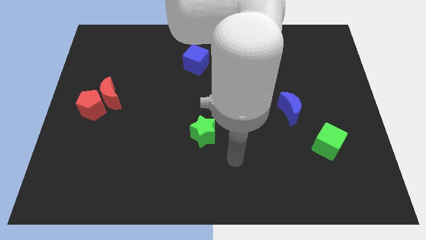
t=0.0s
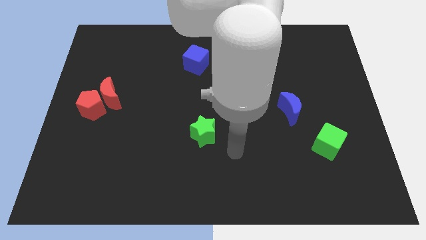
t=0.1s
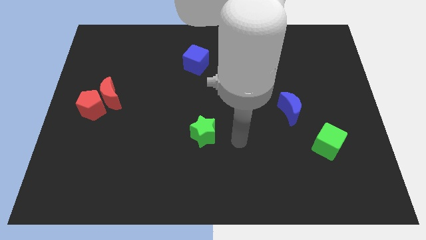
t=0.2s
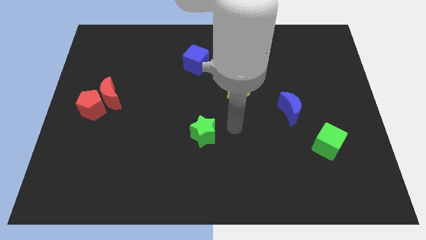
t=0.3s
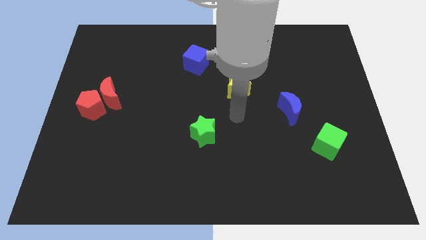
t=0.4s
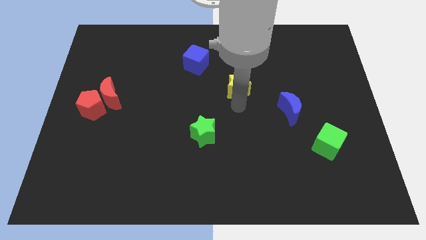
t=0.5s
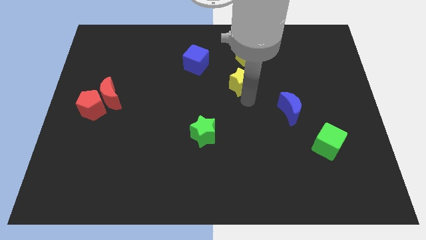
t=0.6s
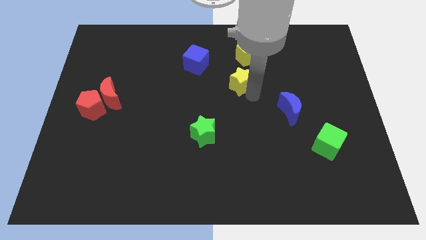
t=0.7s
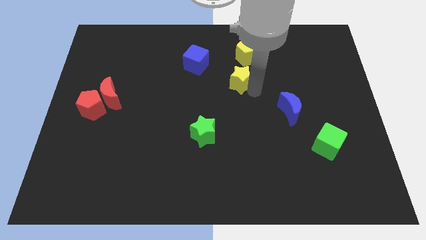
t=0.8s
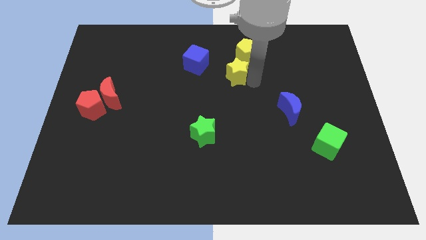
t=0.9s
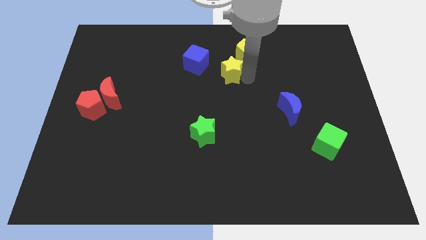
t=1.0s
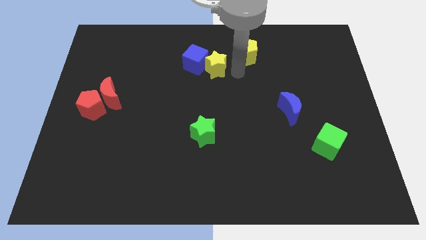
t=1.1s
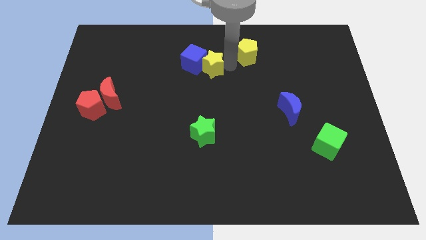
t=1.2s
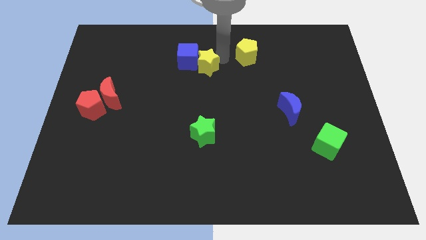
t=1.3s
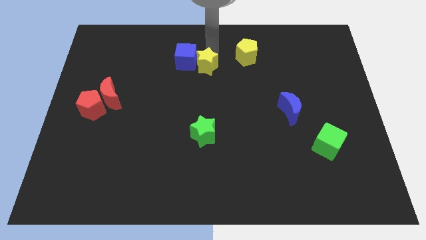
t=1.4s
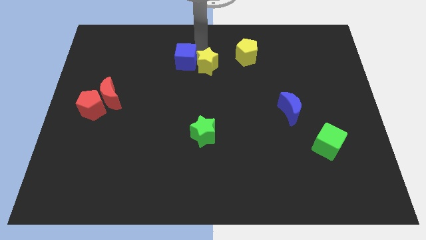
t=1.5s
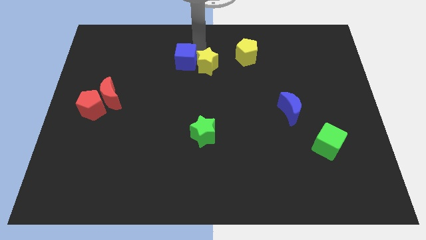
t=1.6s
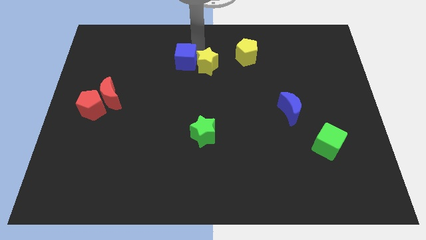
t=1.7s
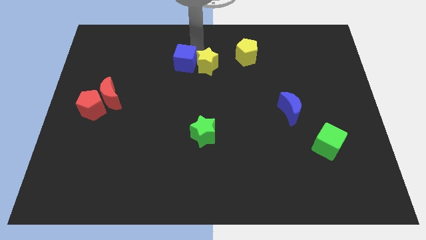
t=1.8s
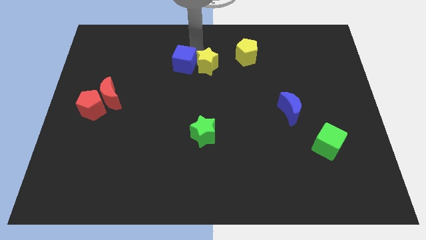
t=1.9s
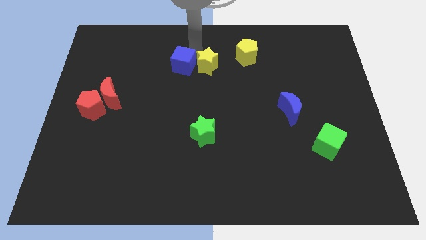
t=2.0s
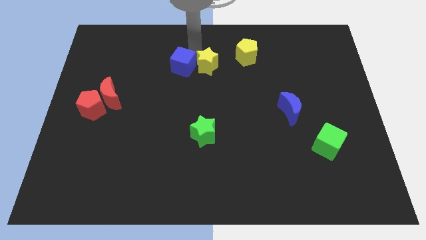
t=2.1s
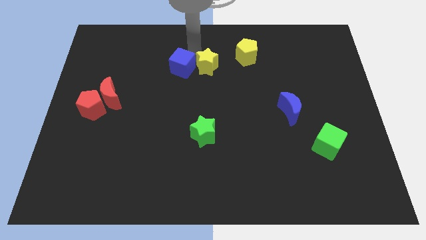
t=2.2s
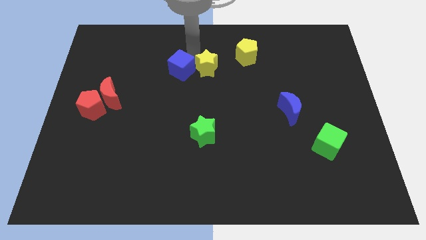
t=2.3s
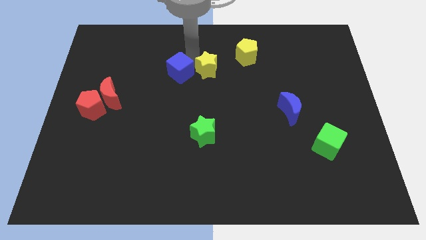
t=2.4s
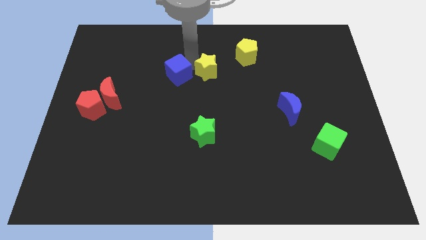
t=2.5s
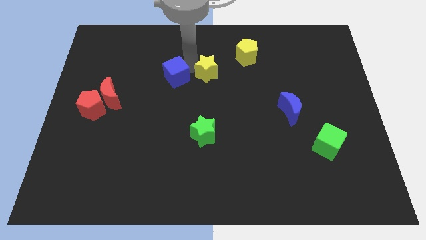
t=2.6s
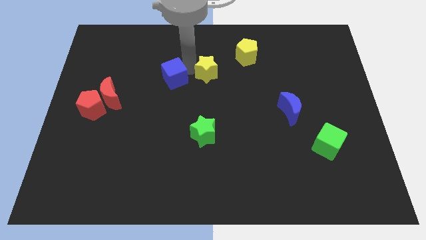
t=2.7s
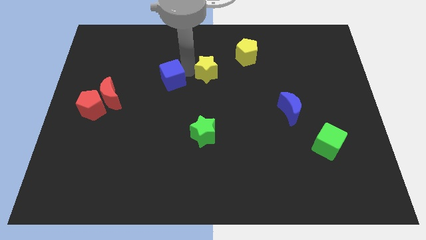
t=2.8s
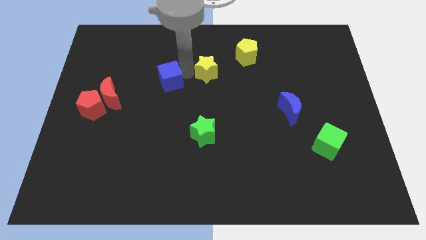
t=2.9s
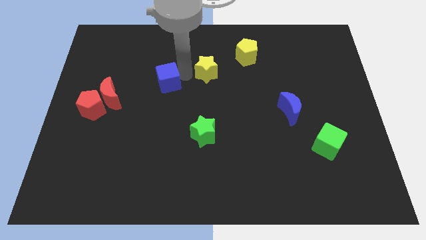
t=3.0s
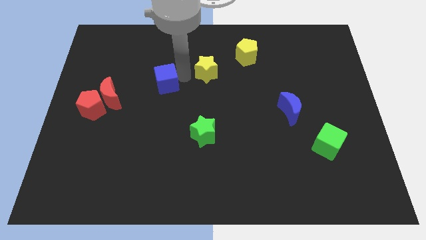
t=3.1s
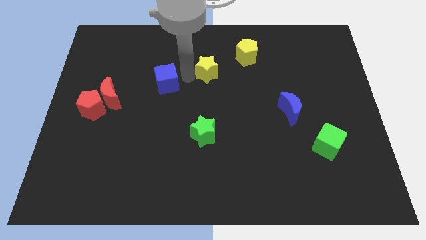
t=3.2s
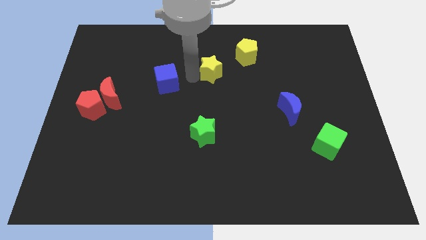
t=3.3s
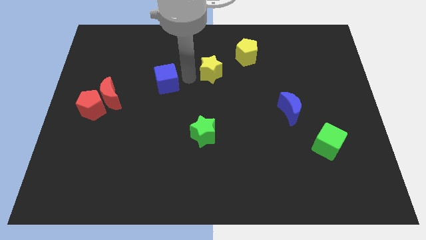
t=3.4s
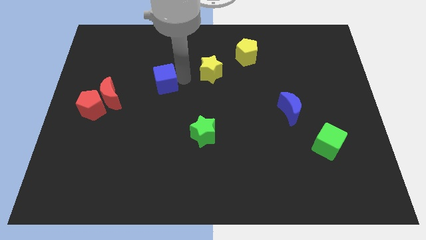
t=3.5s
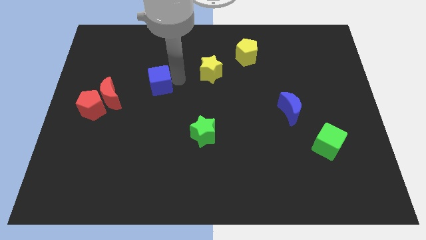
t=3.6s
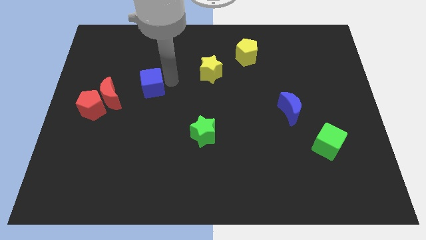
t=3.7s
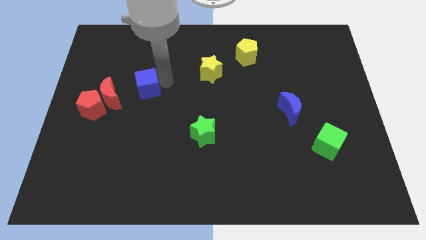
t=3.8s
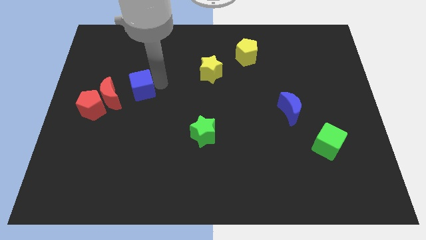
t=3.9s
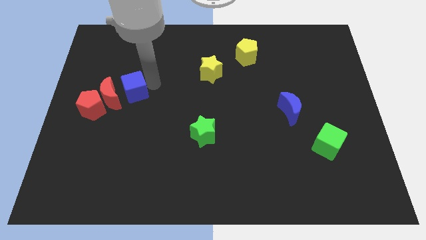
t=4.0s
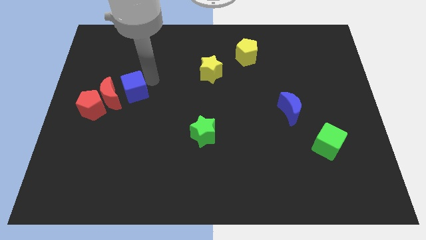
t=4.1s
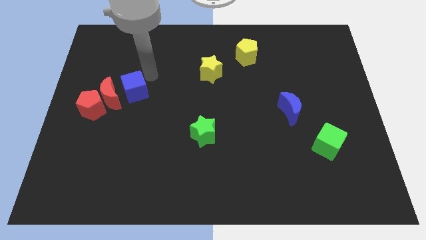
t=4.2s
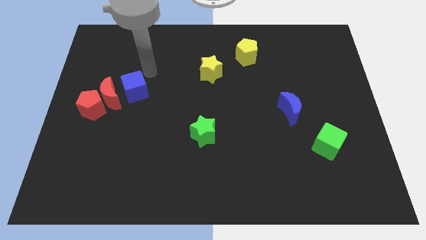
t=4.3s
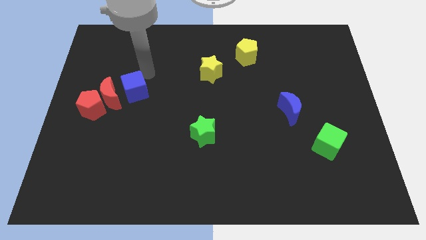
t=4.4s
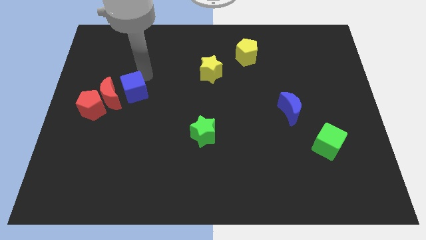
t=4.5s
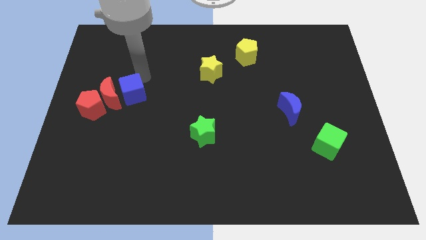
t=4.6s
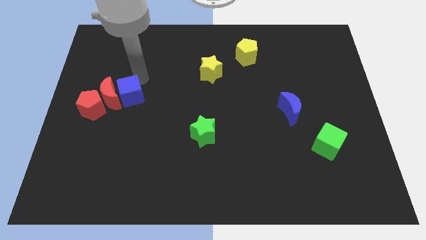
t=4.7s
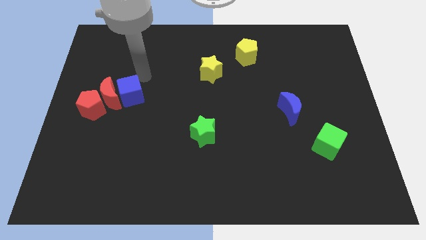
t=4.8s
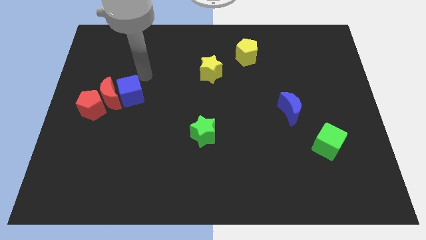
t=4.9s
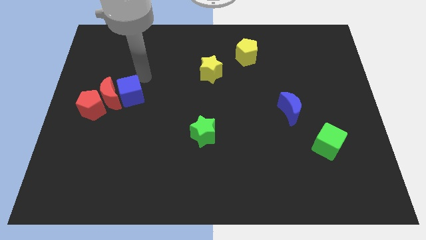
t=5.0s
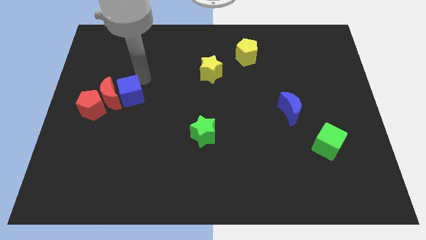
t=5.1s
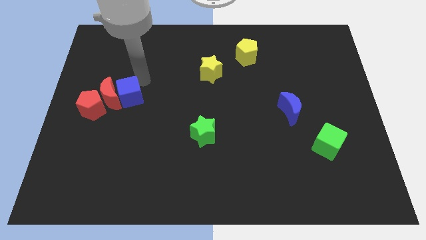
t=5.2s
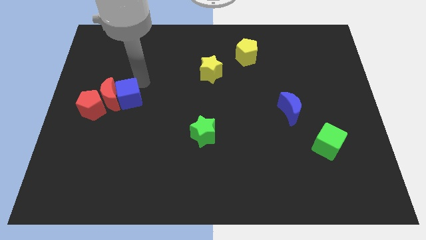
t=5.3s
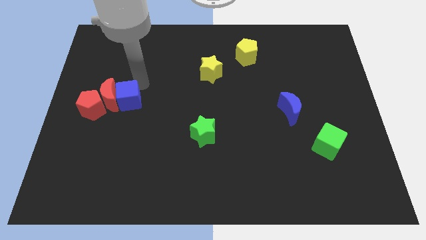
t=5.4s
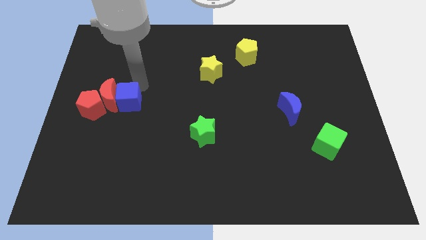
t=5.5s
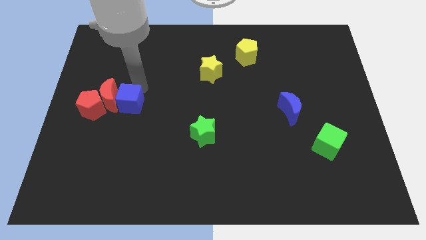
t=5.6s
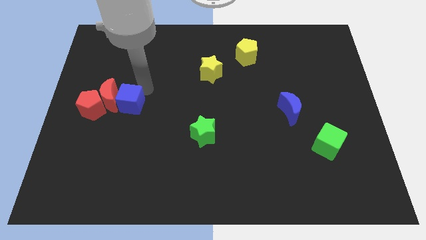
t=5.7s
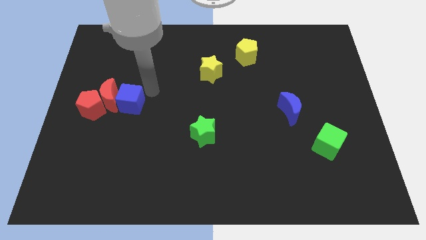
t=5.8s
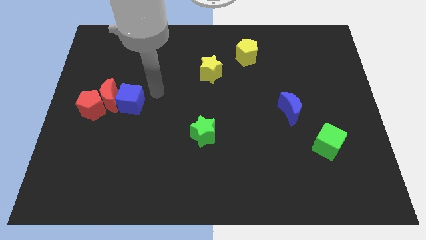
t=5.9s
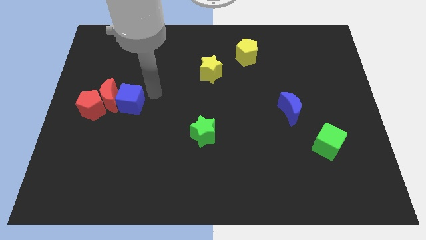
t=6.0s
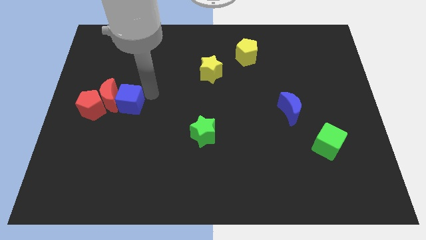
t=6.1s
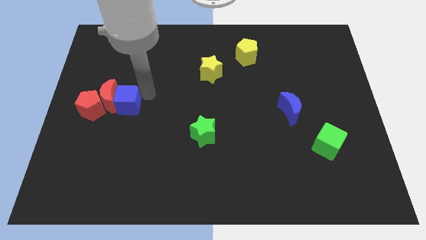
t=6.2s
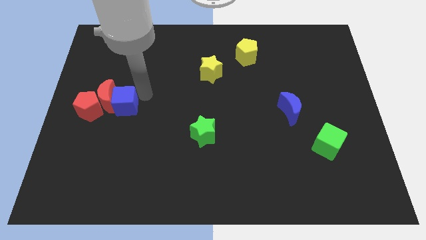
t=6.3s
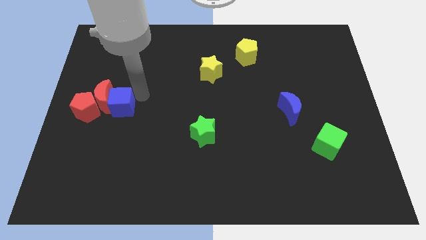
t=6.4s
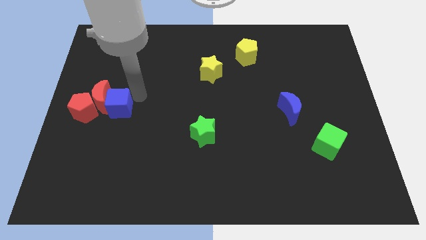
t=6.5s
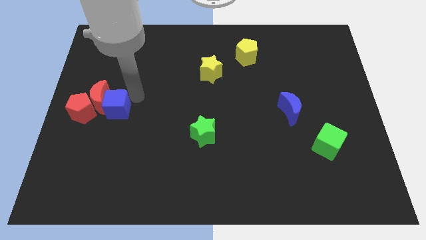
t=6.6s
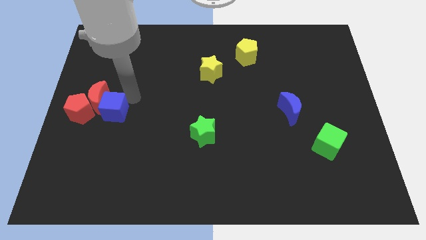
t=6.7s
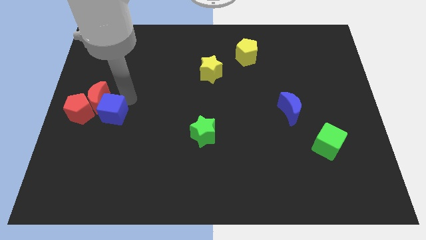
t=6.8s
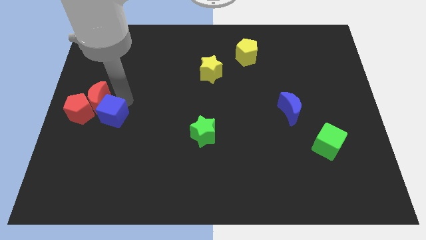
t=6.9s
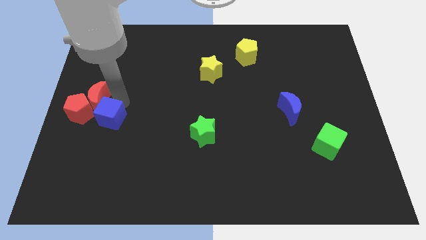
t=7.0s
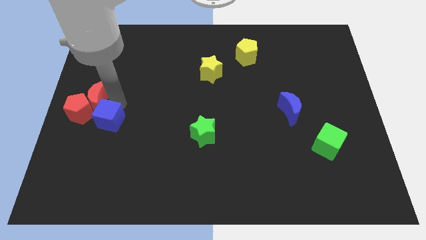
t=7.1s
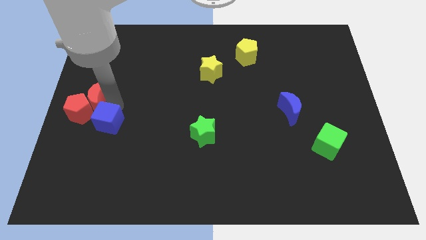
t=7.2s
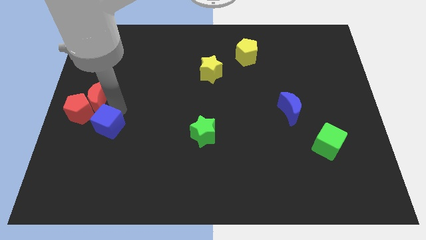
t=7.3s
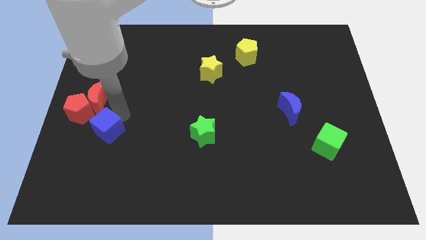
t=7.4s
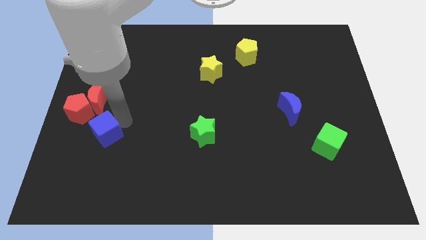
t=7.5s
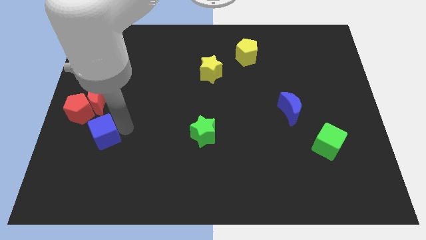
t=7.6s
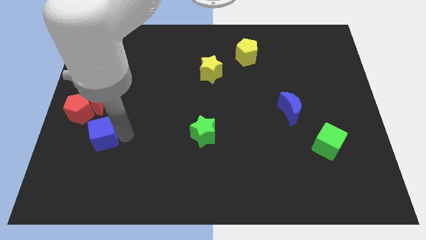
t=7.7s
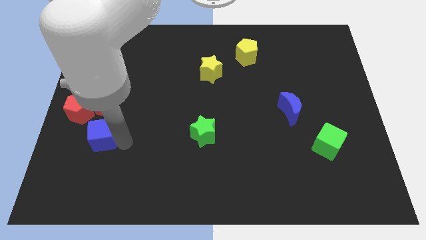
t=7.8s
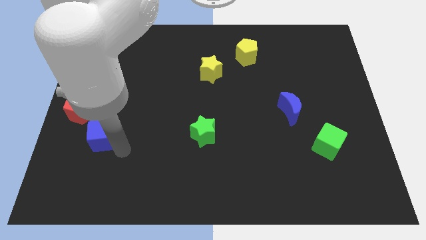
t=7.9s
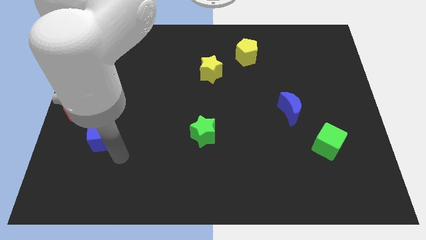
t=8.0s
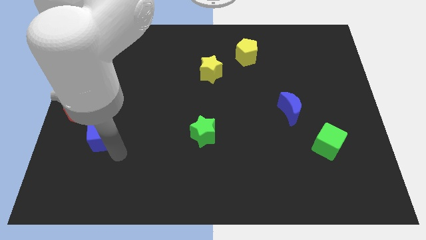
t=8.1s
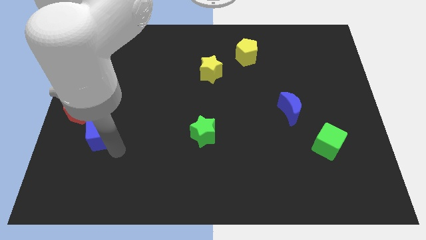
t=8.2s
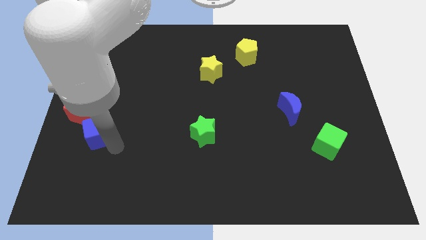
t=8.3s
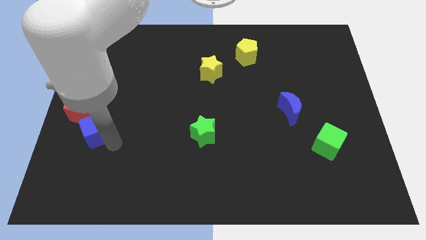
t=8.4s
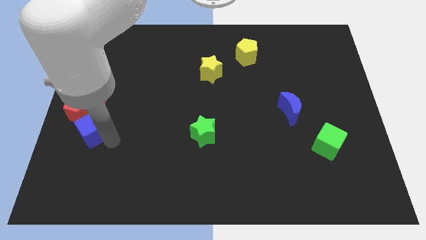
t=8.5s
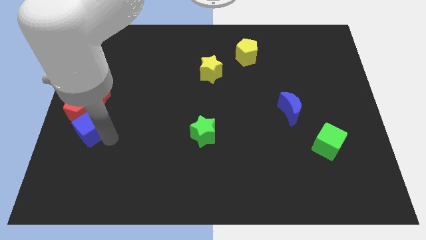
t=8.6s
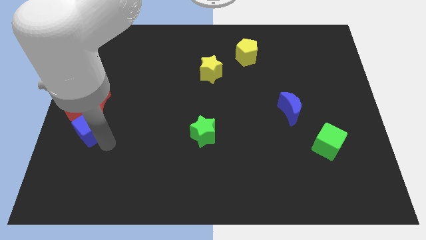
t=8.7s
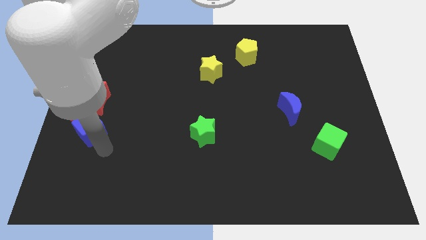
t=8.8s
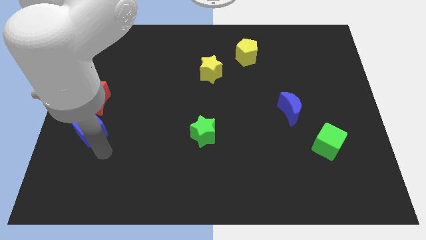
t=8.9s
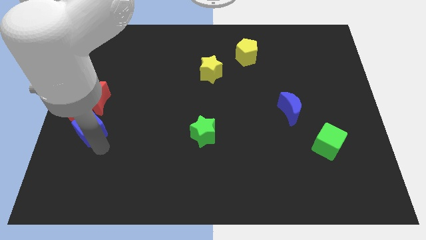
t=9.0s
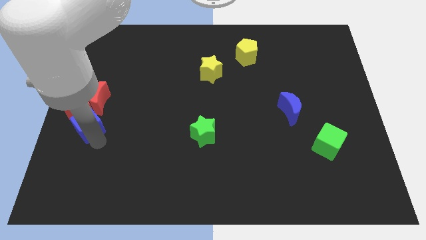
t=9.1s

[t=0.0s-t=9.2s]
slide the blue cube next to the red pentagon
